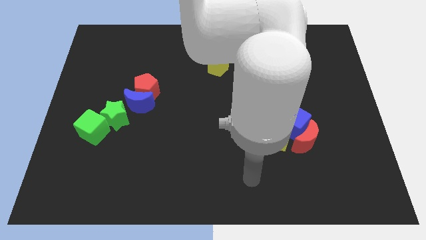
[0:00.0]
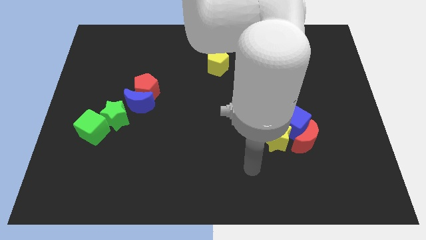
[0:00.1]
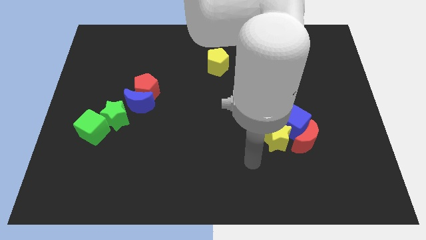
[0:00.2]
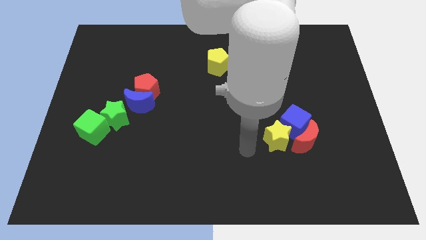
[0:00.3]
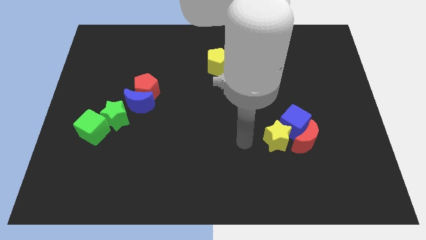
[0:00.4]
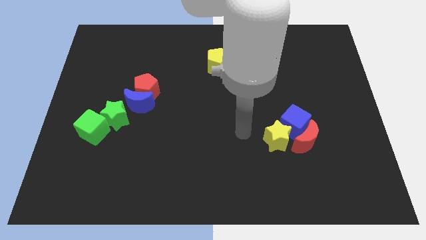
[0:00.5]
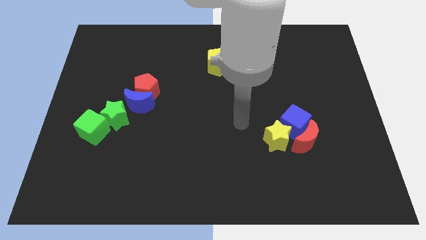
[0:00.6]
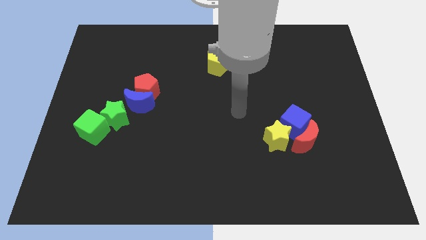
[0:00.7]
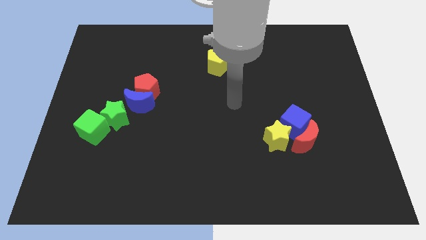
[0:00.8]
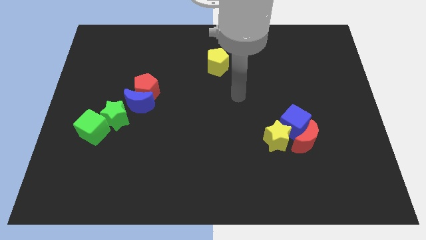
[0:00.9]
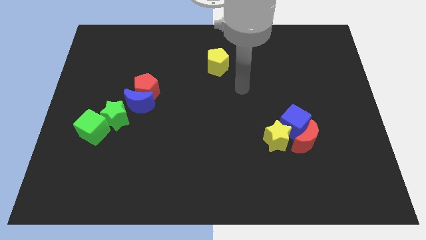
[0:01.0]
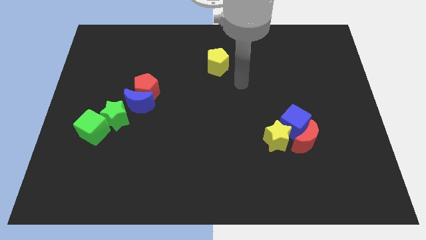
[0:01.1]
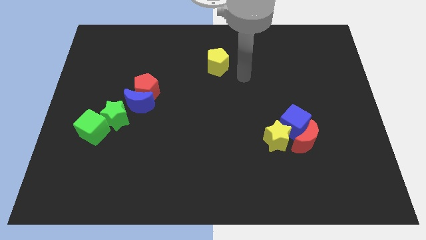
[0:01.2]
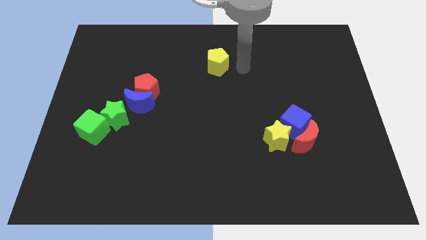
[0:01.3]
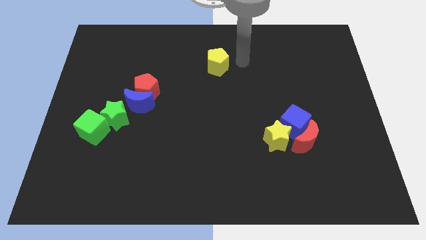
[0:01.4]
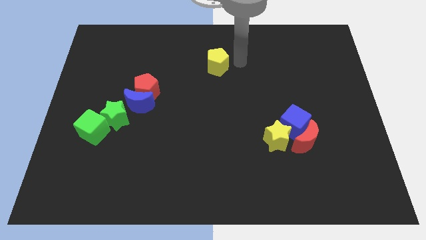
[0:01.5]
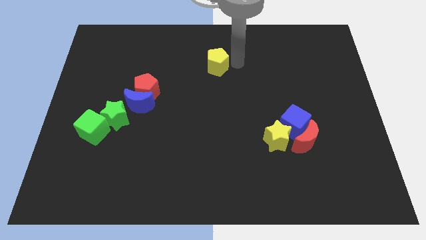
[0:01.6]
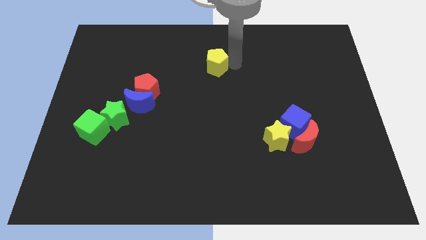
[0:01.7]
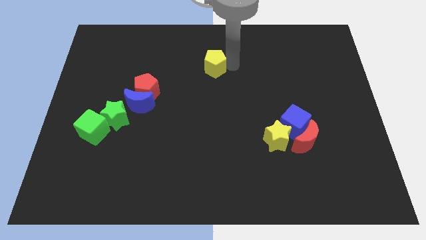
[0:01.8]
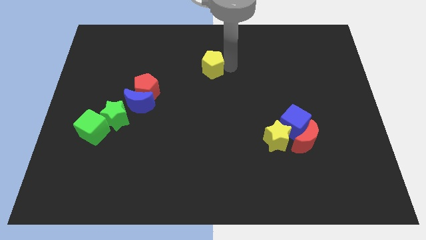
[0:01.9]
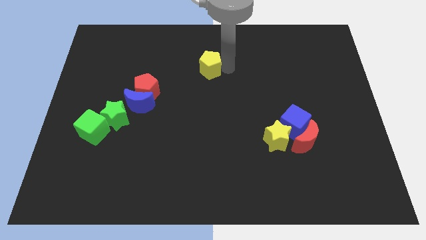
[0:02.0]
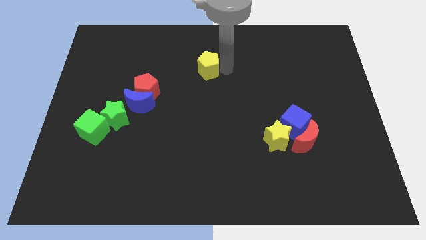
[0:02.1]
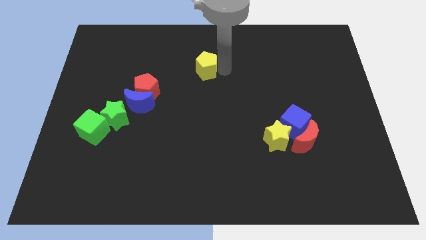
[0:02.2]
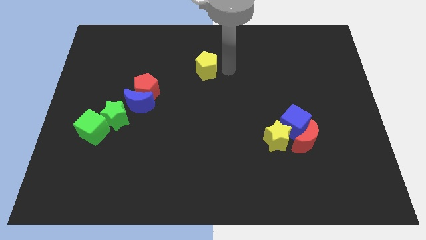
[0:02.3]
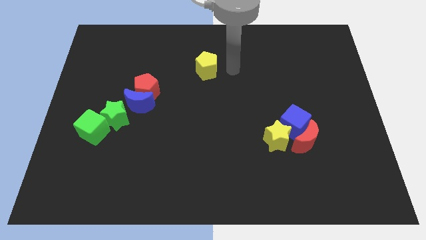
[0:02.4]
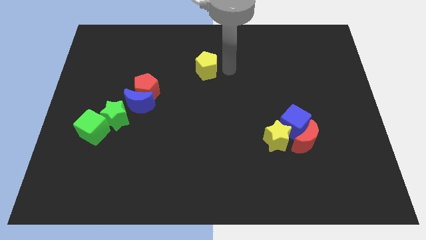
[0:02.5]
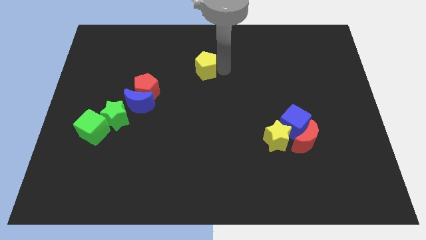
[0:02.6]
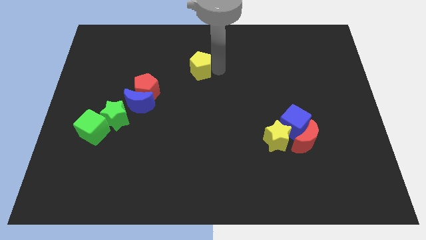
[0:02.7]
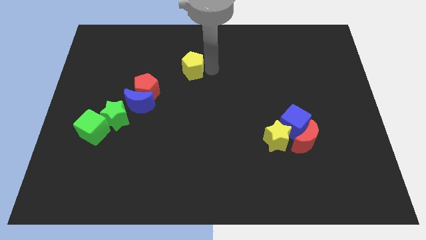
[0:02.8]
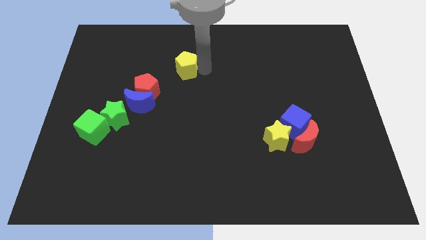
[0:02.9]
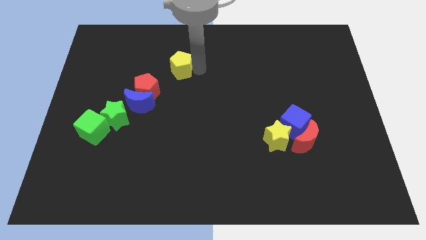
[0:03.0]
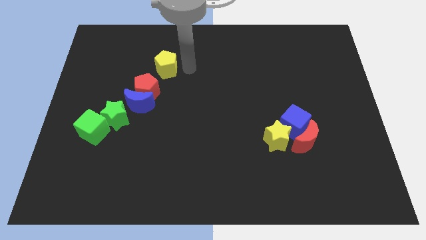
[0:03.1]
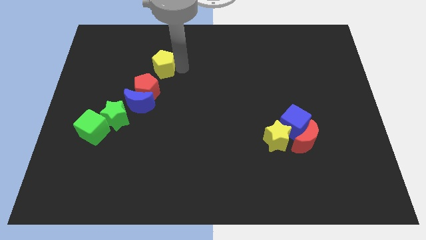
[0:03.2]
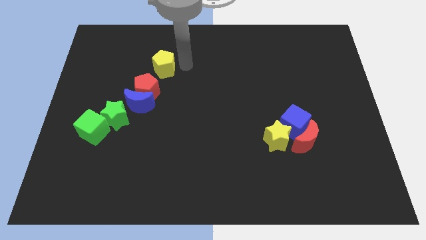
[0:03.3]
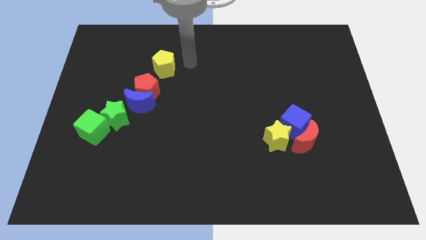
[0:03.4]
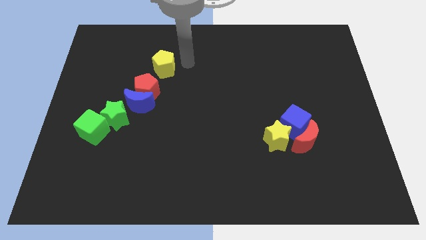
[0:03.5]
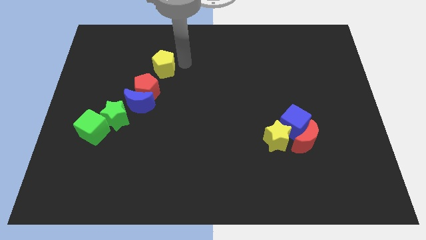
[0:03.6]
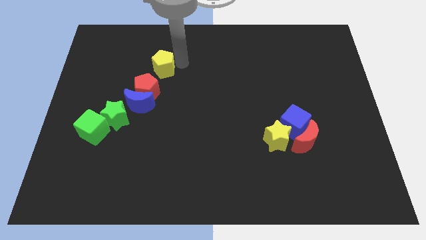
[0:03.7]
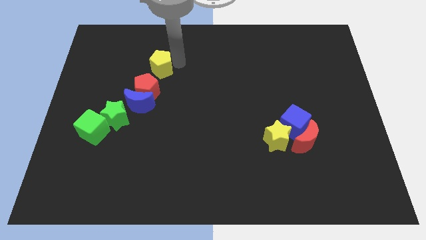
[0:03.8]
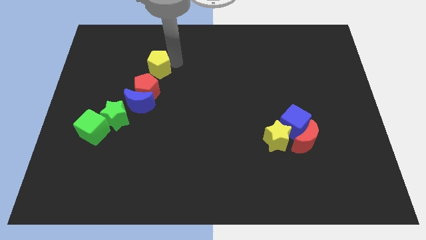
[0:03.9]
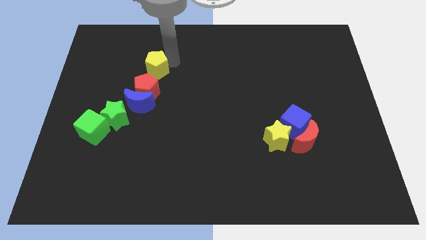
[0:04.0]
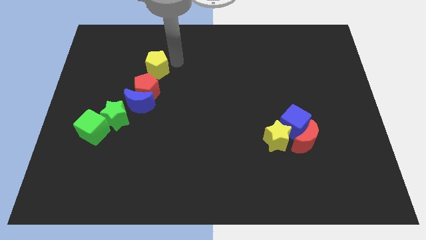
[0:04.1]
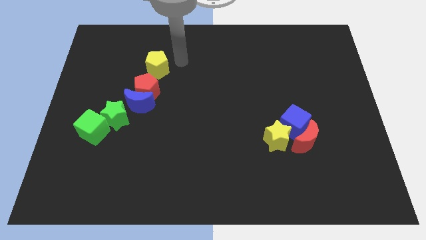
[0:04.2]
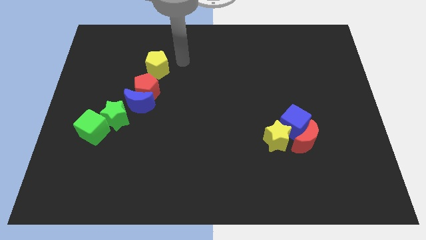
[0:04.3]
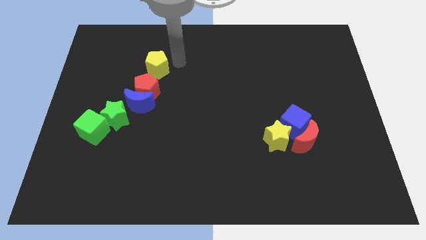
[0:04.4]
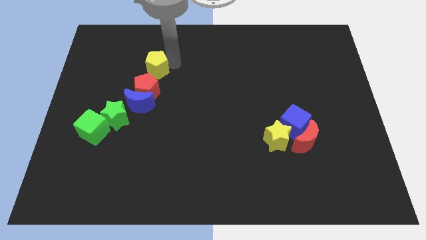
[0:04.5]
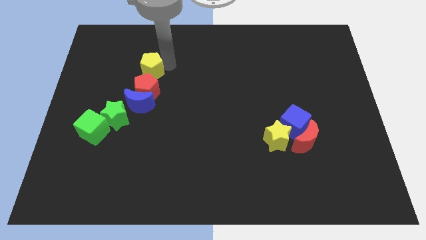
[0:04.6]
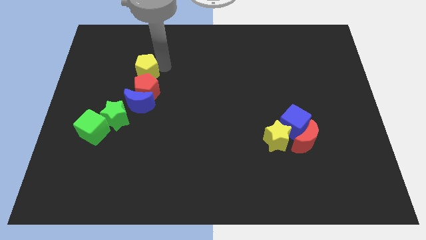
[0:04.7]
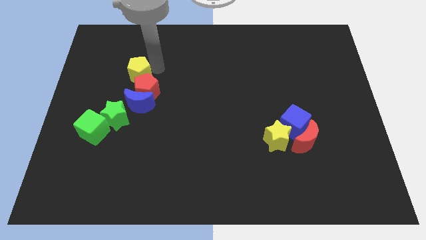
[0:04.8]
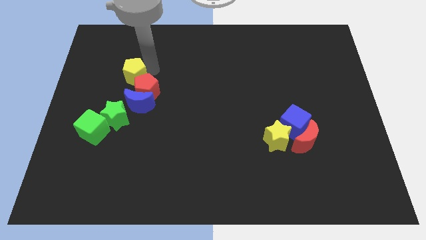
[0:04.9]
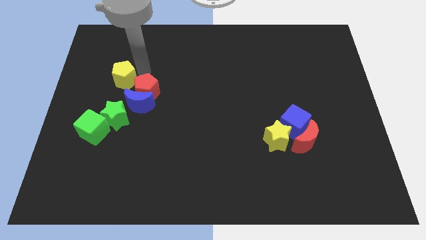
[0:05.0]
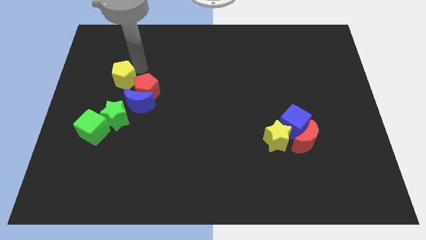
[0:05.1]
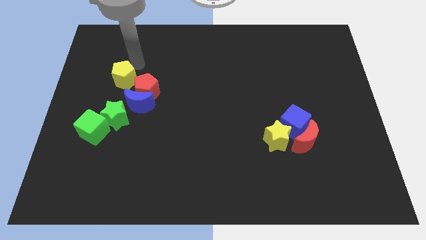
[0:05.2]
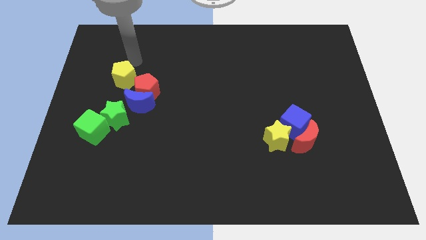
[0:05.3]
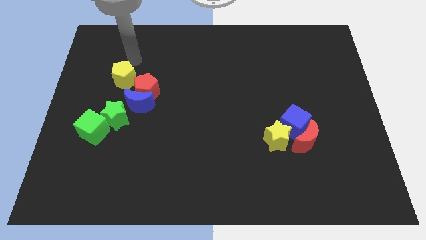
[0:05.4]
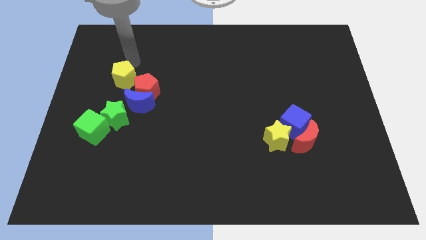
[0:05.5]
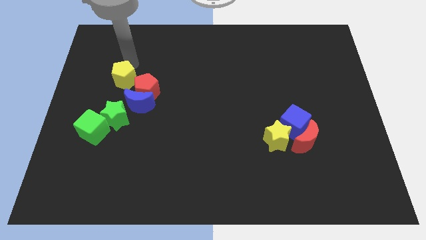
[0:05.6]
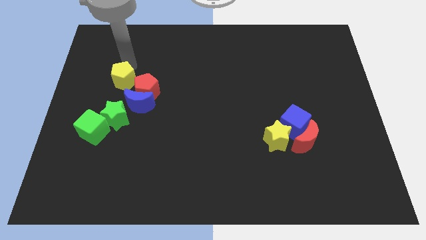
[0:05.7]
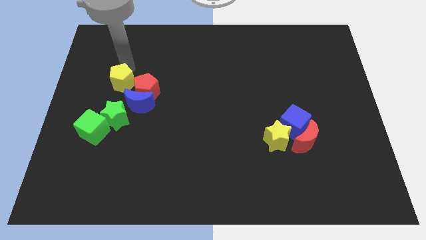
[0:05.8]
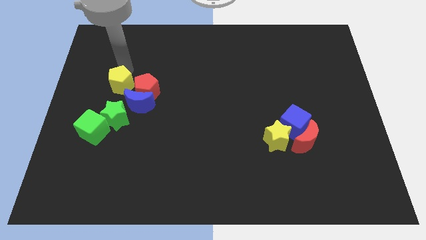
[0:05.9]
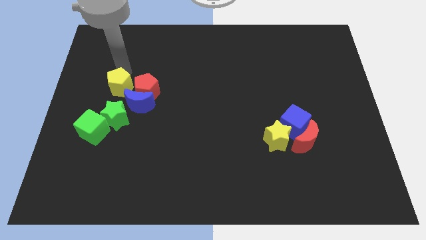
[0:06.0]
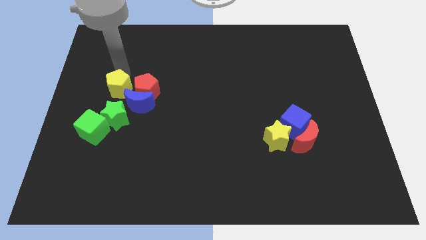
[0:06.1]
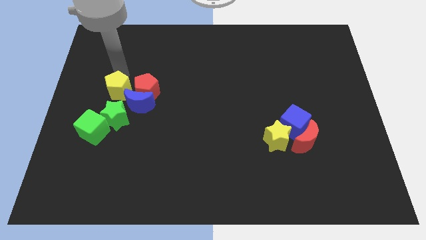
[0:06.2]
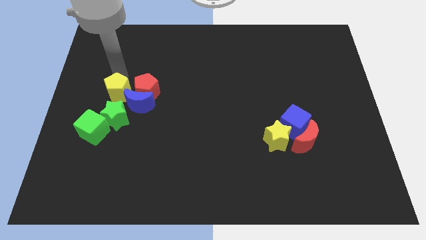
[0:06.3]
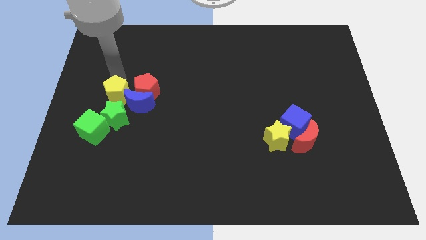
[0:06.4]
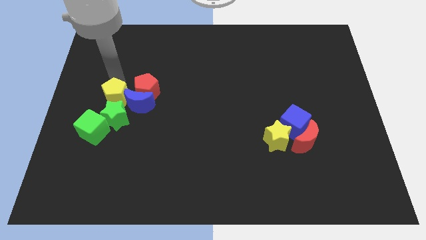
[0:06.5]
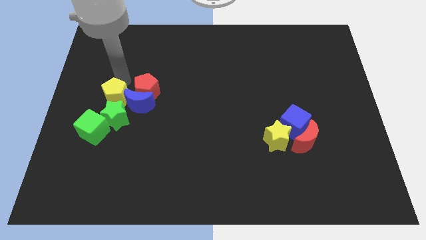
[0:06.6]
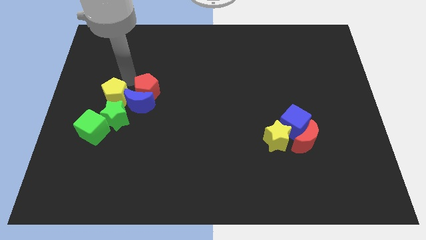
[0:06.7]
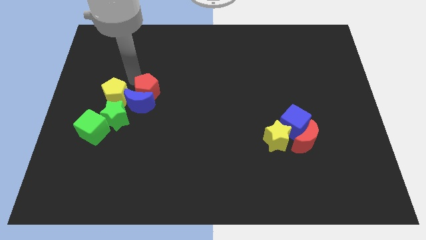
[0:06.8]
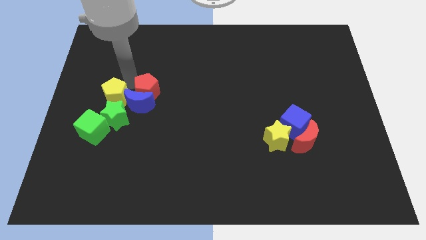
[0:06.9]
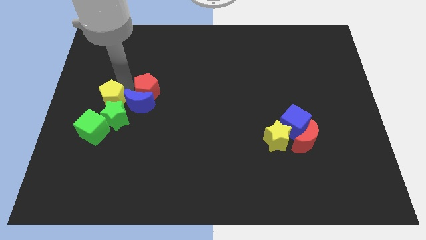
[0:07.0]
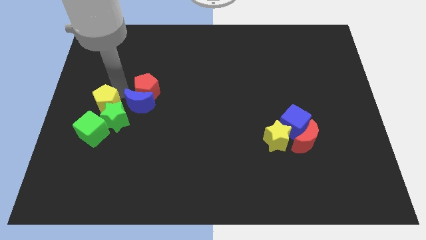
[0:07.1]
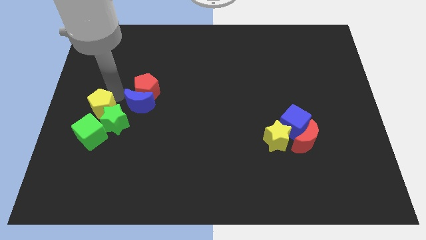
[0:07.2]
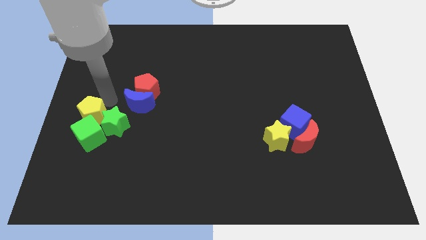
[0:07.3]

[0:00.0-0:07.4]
put the yellow pentagon close to the green cube

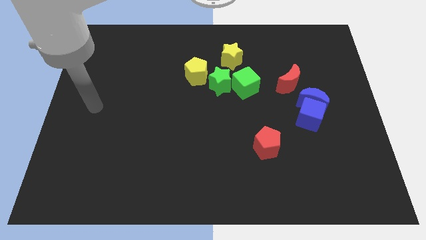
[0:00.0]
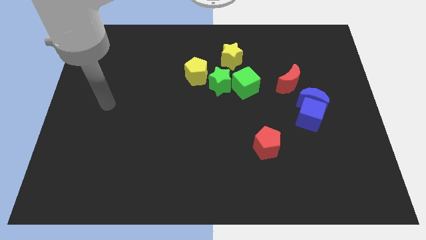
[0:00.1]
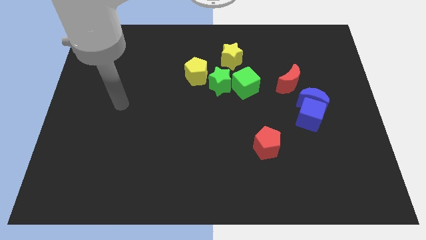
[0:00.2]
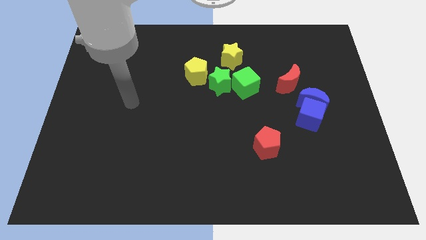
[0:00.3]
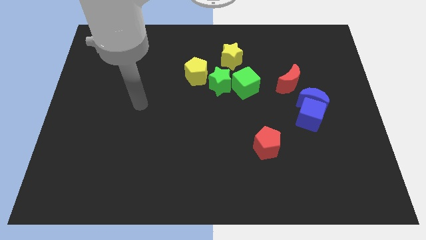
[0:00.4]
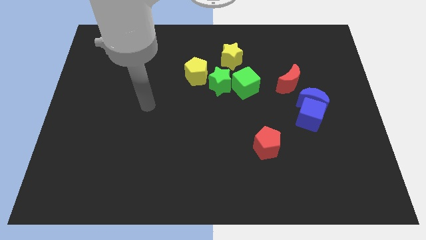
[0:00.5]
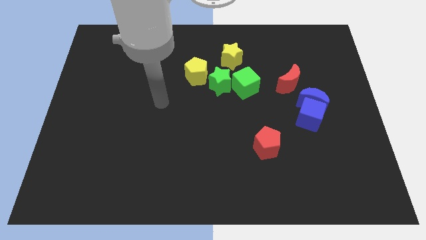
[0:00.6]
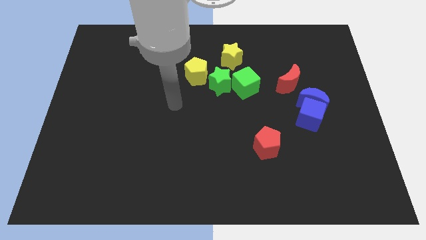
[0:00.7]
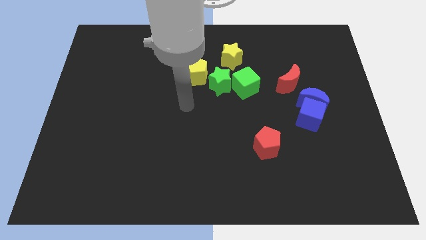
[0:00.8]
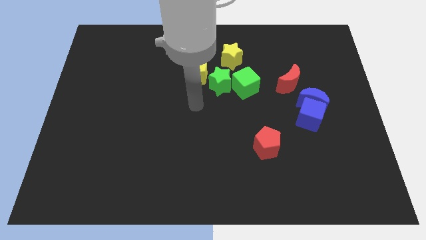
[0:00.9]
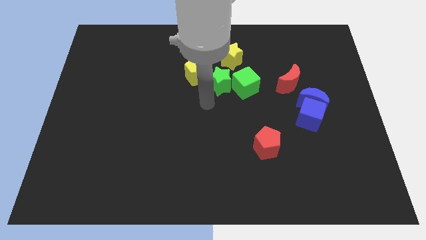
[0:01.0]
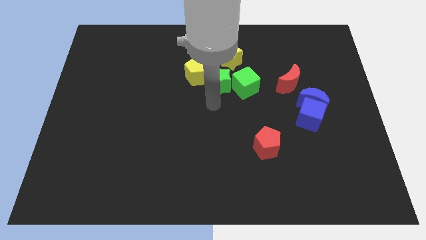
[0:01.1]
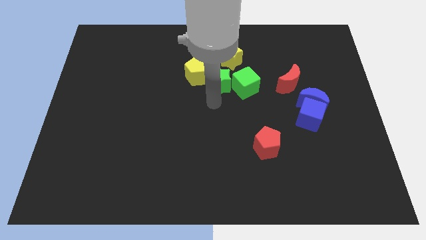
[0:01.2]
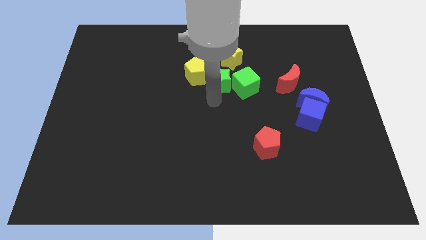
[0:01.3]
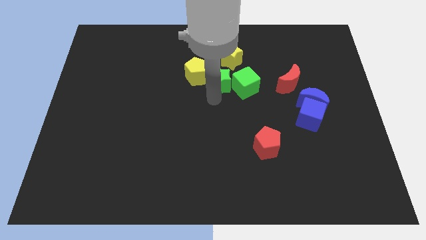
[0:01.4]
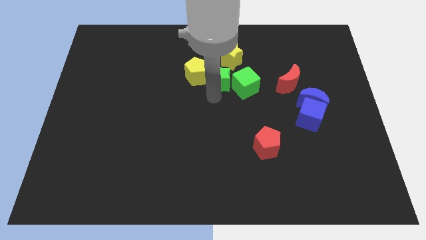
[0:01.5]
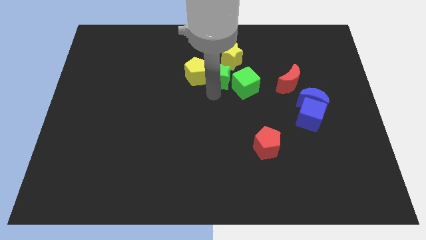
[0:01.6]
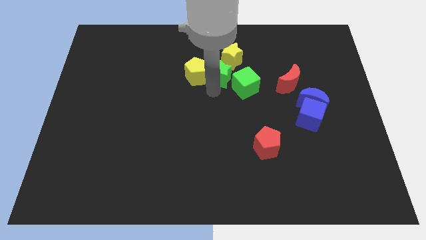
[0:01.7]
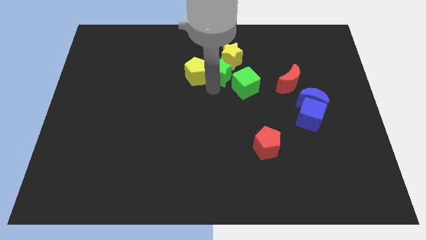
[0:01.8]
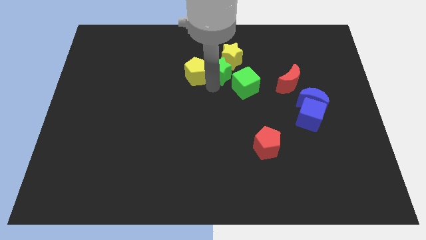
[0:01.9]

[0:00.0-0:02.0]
move the green star next to the yellow star
